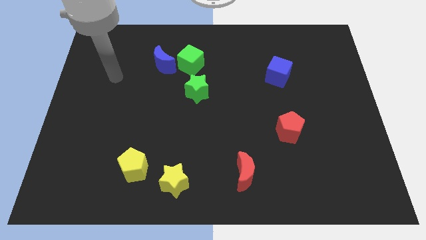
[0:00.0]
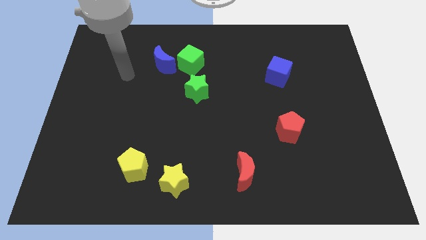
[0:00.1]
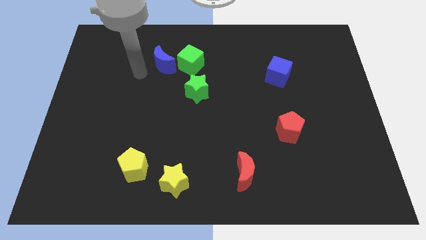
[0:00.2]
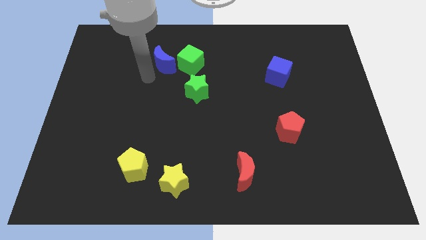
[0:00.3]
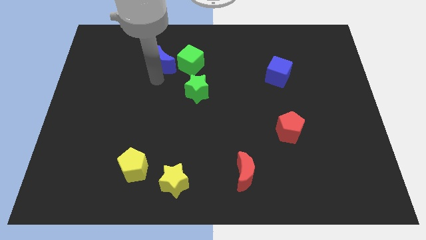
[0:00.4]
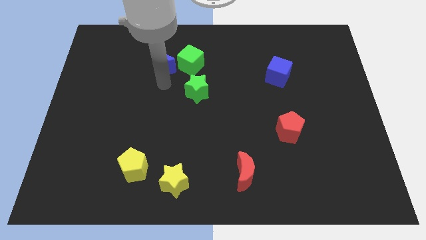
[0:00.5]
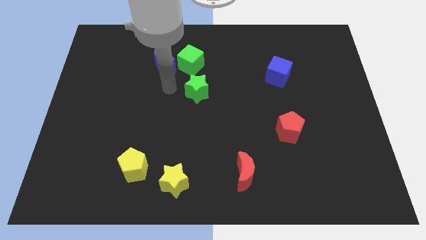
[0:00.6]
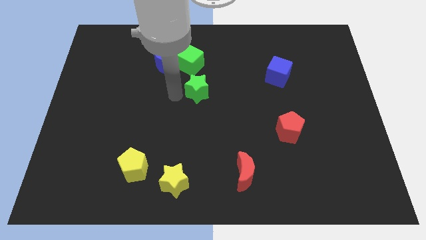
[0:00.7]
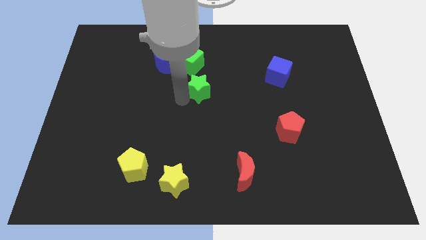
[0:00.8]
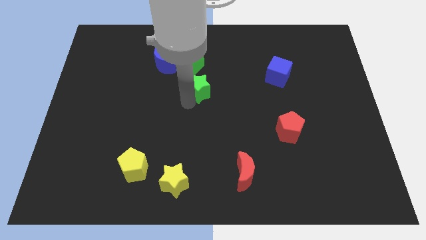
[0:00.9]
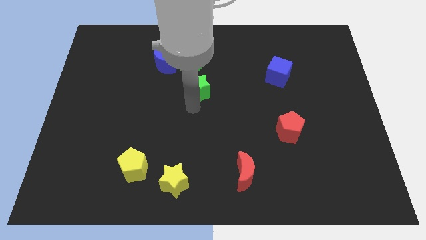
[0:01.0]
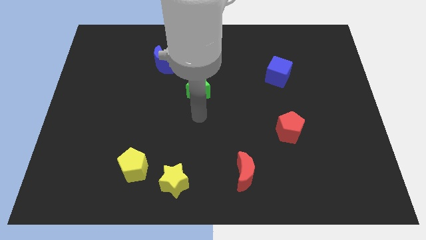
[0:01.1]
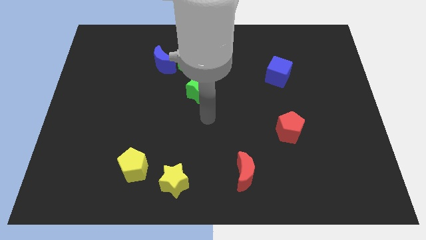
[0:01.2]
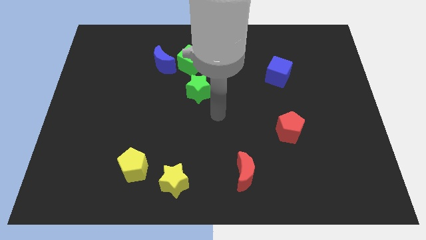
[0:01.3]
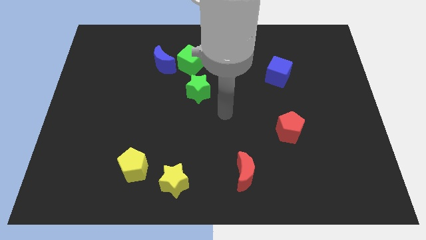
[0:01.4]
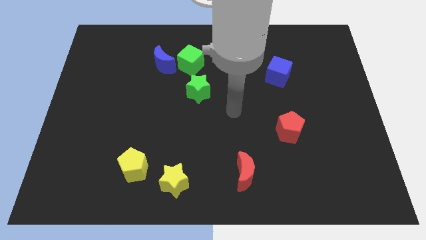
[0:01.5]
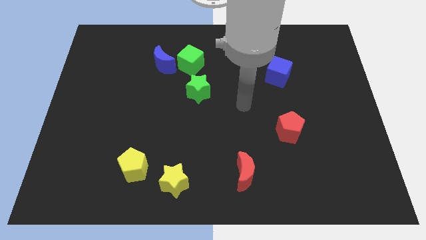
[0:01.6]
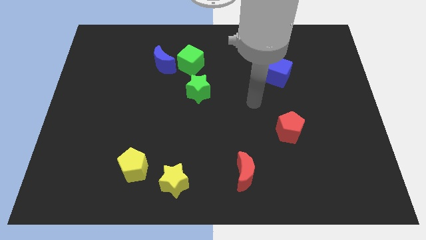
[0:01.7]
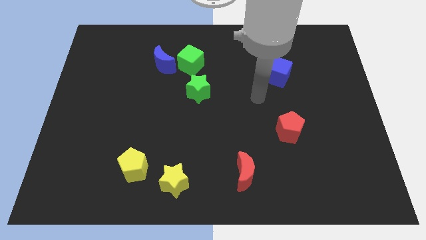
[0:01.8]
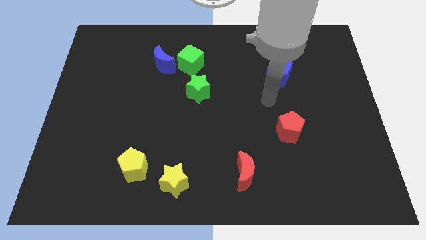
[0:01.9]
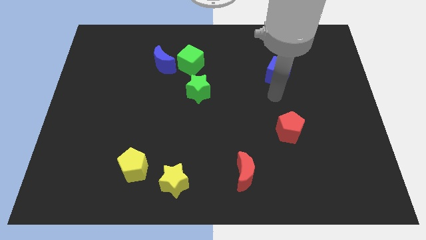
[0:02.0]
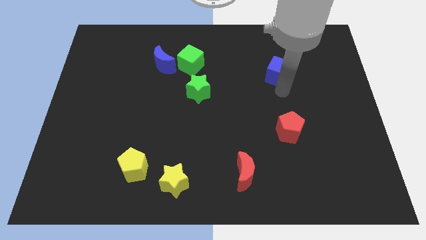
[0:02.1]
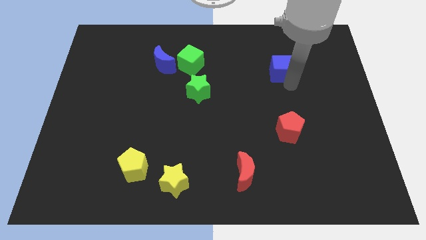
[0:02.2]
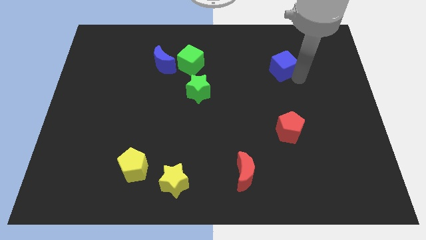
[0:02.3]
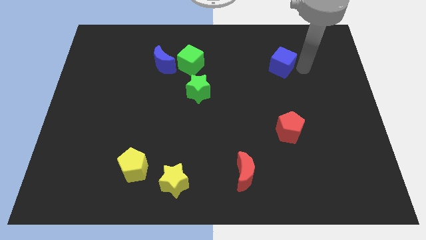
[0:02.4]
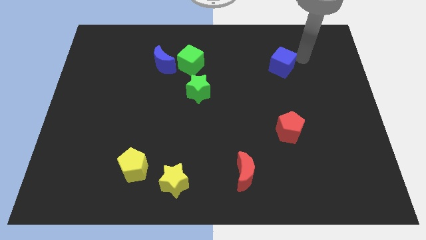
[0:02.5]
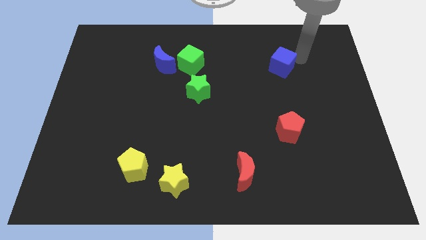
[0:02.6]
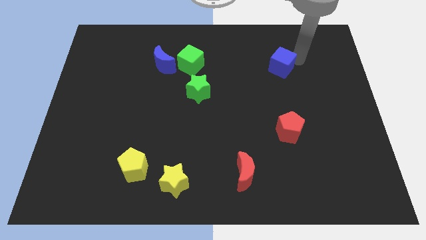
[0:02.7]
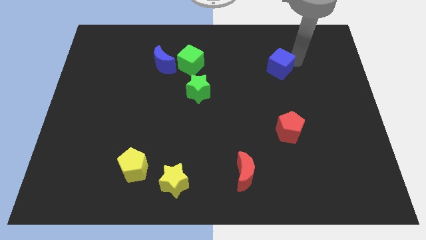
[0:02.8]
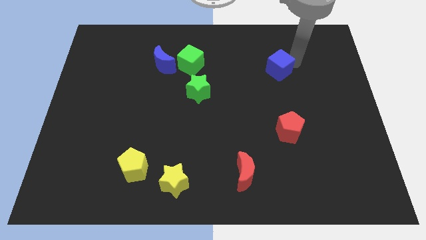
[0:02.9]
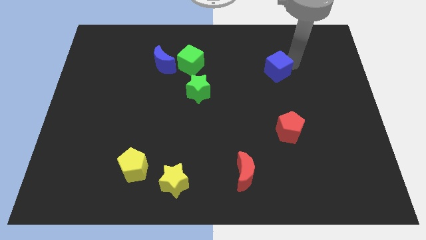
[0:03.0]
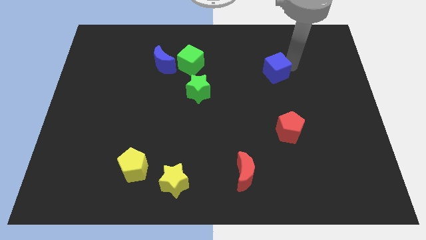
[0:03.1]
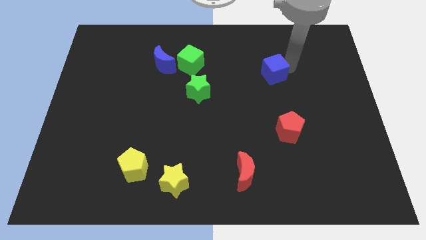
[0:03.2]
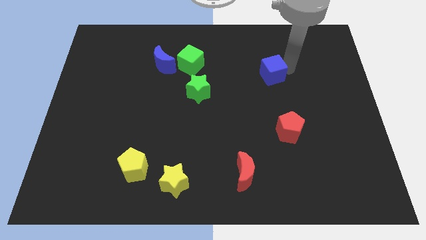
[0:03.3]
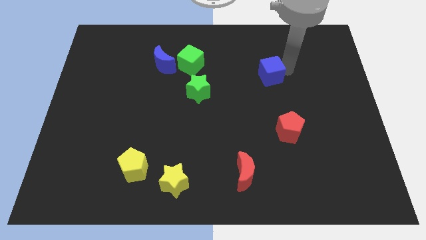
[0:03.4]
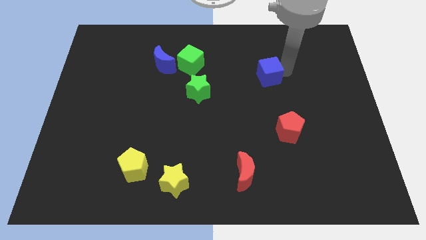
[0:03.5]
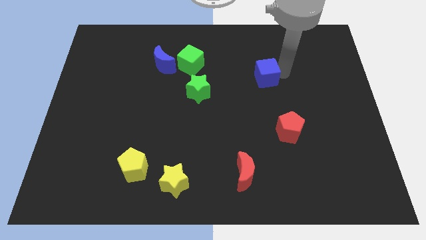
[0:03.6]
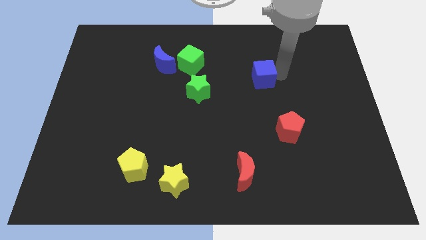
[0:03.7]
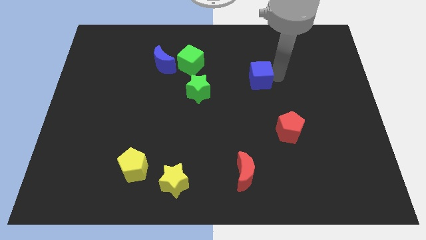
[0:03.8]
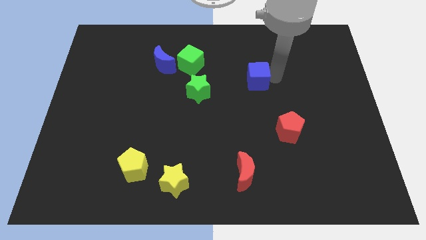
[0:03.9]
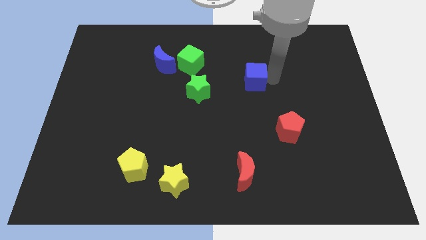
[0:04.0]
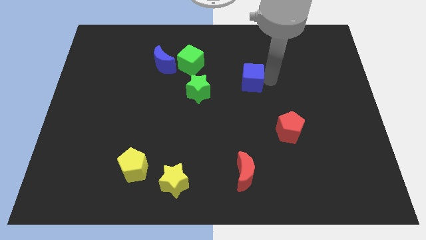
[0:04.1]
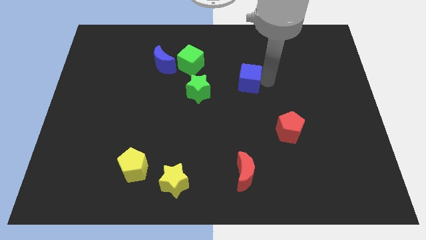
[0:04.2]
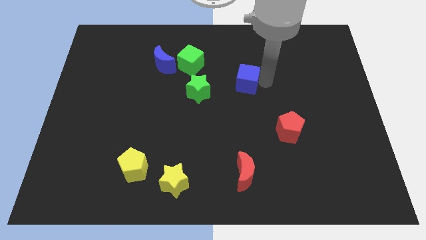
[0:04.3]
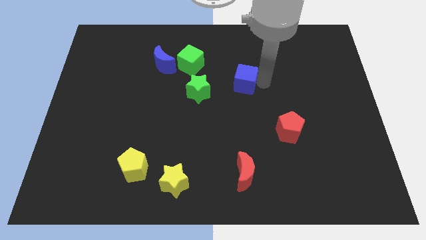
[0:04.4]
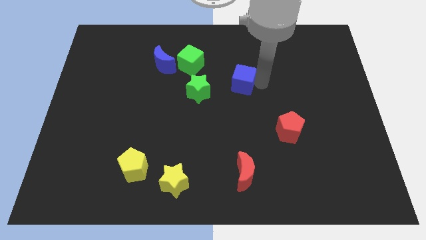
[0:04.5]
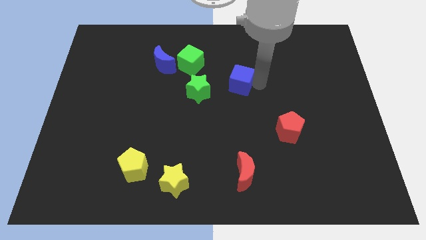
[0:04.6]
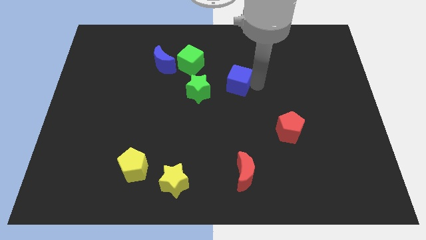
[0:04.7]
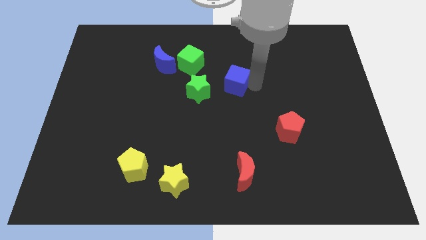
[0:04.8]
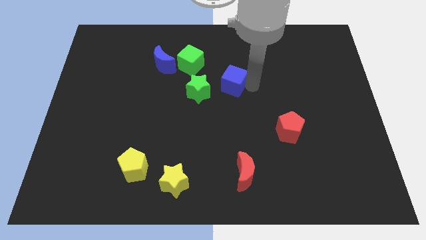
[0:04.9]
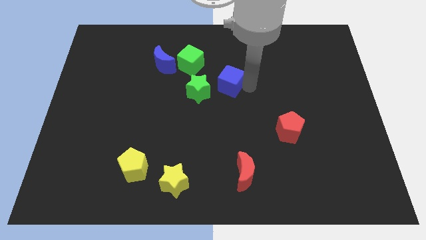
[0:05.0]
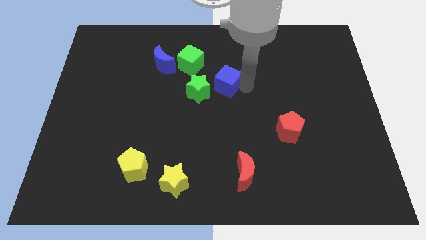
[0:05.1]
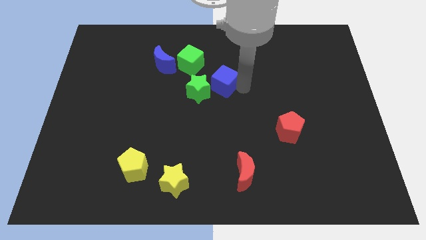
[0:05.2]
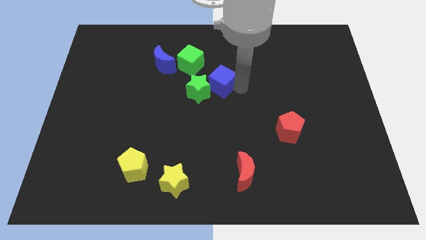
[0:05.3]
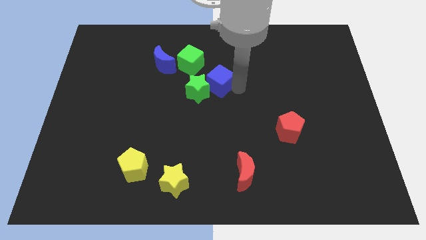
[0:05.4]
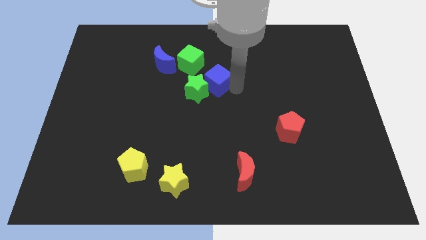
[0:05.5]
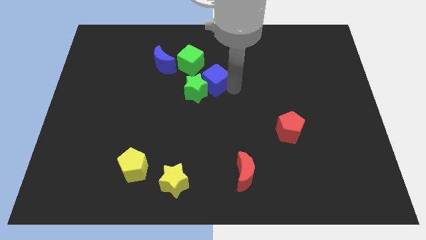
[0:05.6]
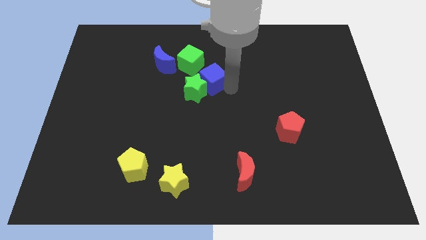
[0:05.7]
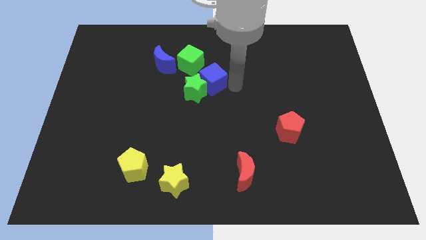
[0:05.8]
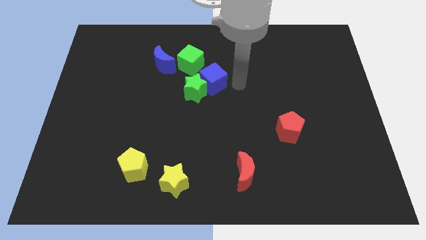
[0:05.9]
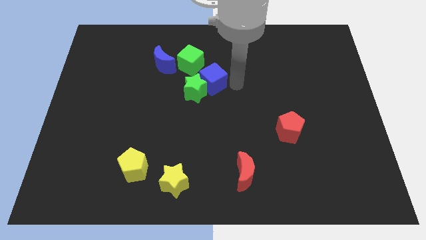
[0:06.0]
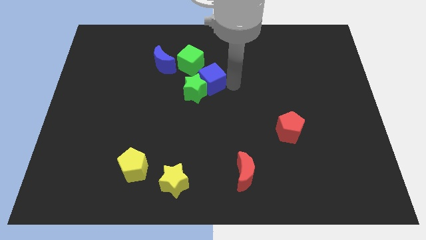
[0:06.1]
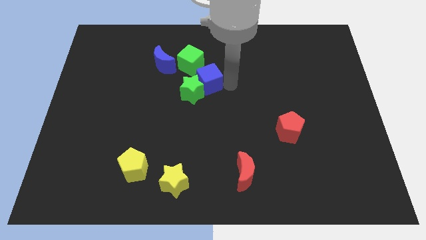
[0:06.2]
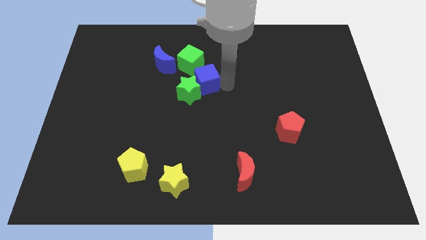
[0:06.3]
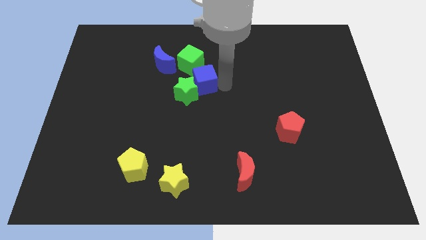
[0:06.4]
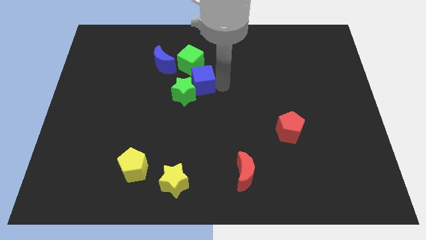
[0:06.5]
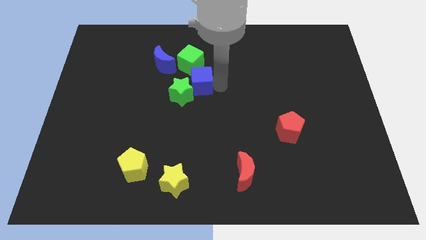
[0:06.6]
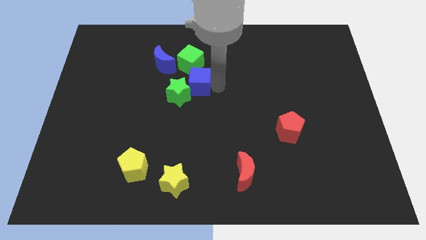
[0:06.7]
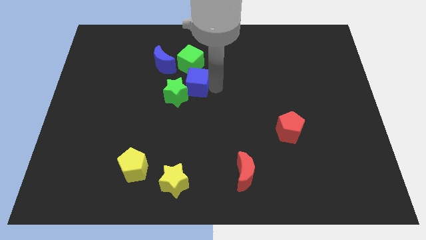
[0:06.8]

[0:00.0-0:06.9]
move the blue cube left

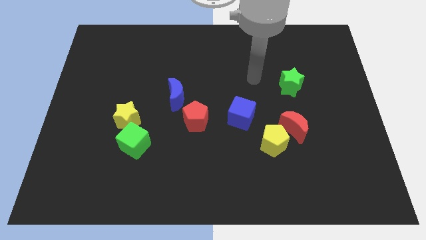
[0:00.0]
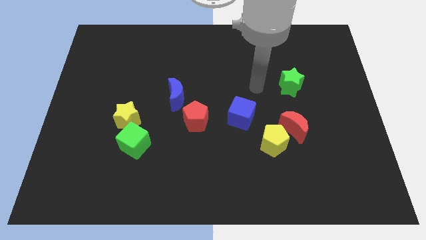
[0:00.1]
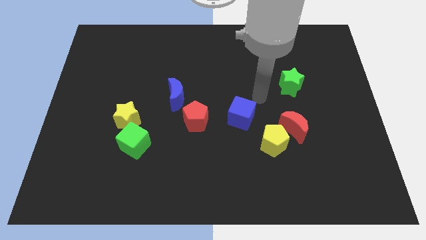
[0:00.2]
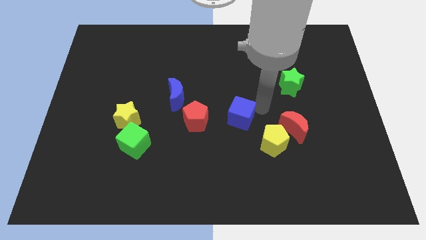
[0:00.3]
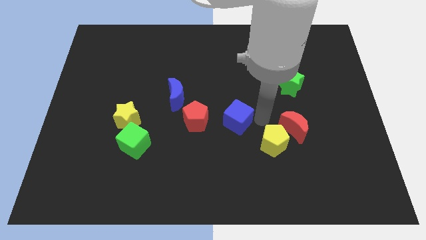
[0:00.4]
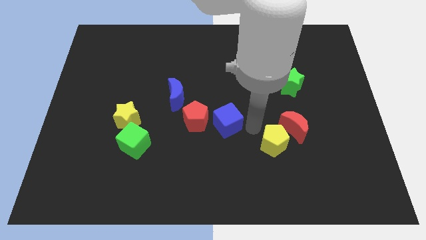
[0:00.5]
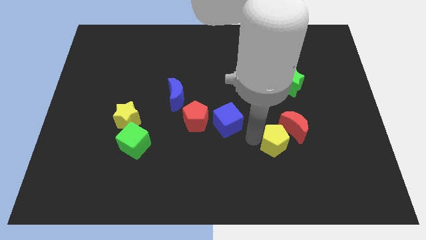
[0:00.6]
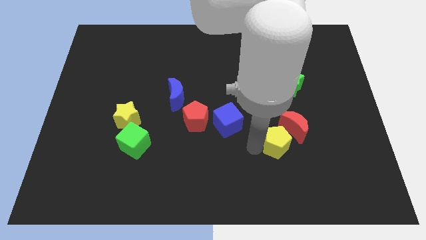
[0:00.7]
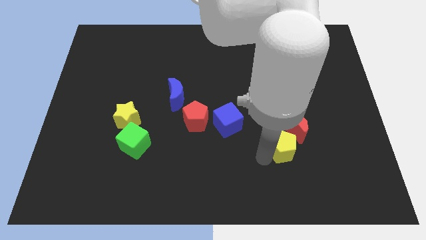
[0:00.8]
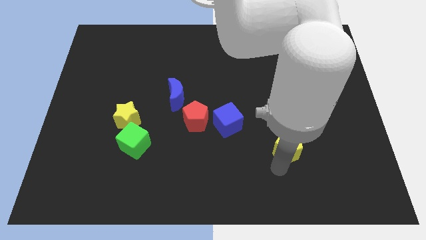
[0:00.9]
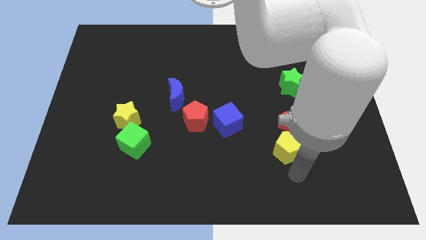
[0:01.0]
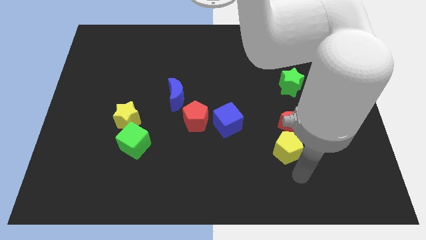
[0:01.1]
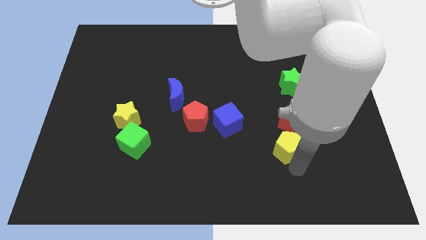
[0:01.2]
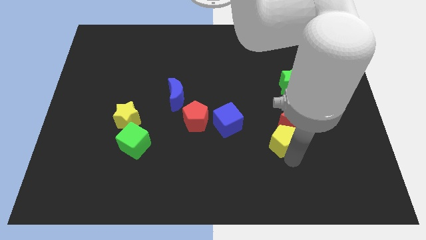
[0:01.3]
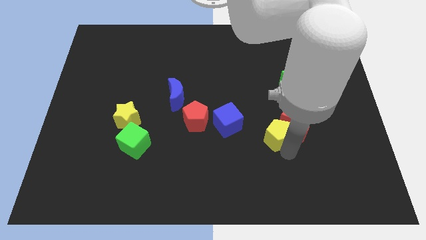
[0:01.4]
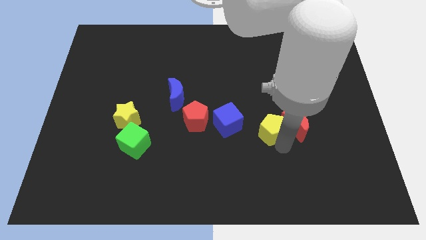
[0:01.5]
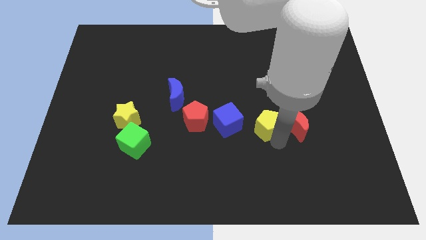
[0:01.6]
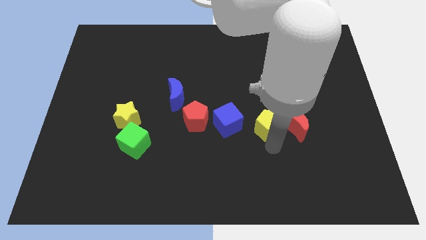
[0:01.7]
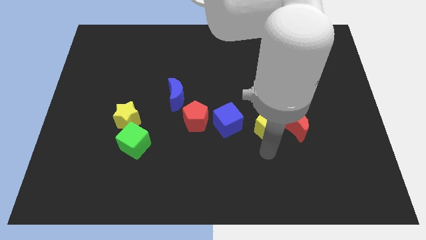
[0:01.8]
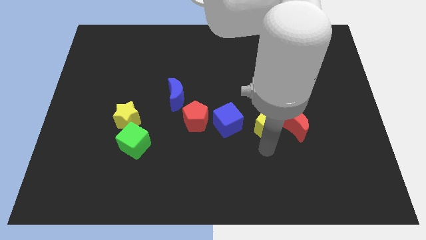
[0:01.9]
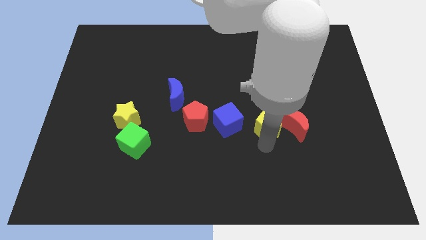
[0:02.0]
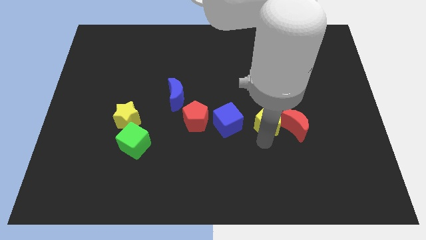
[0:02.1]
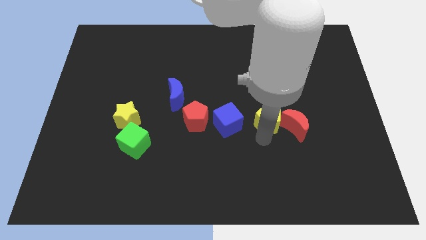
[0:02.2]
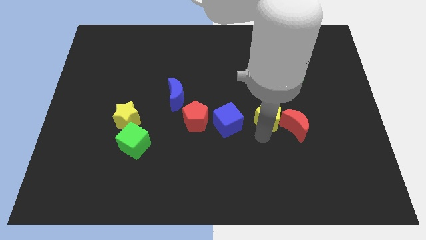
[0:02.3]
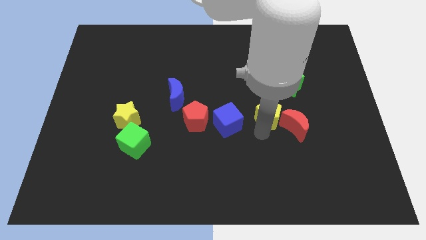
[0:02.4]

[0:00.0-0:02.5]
slide the yellow pentagon up somewhat
